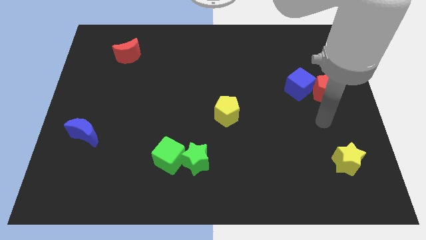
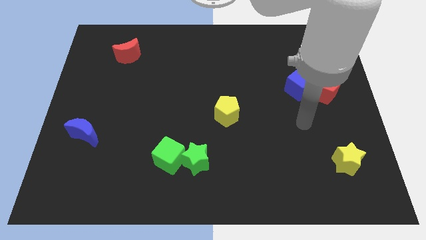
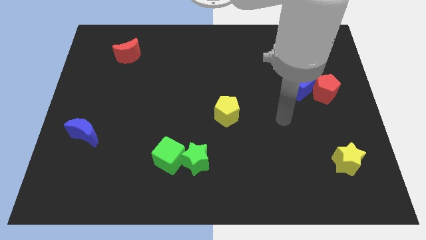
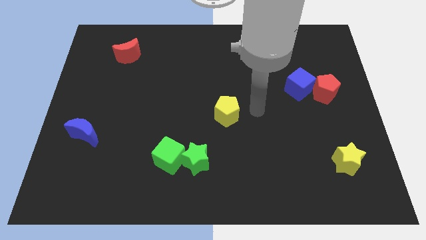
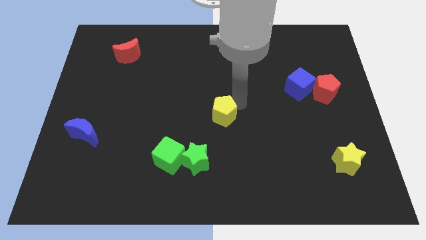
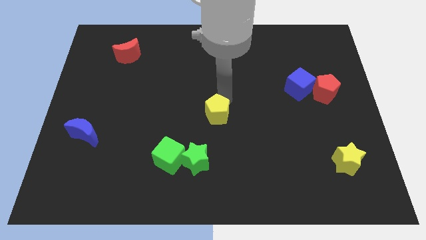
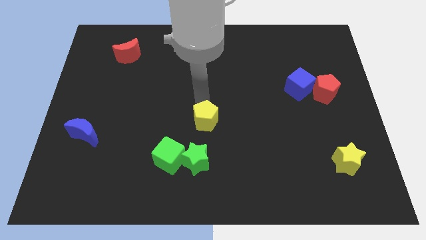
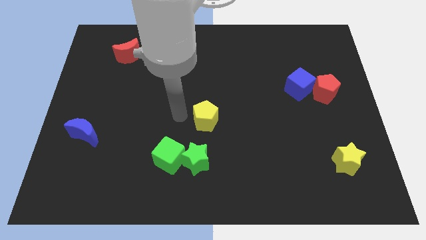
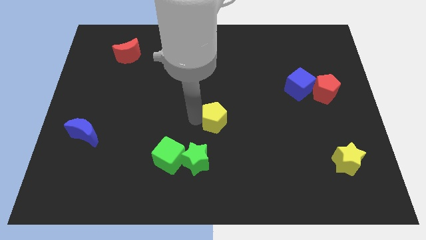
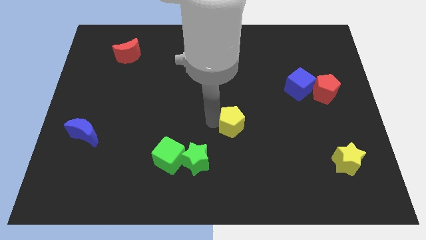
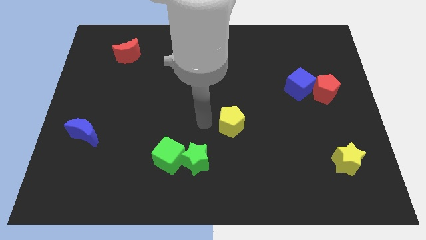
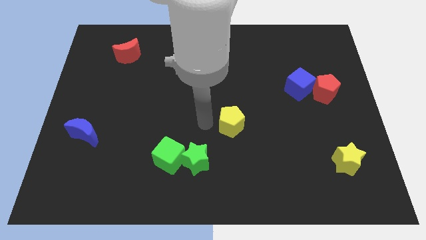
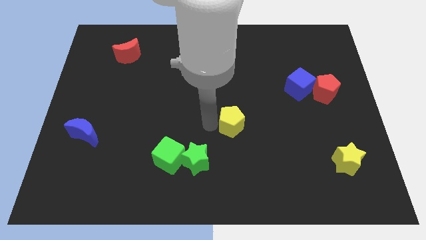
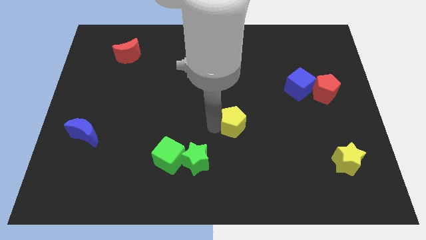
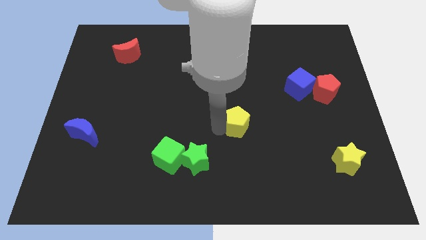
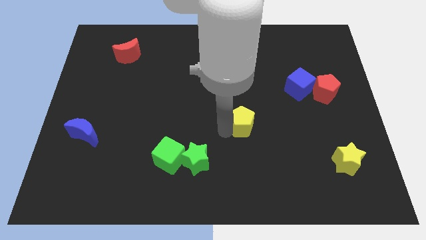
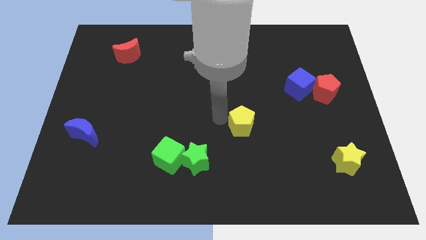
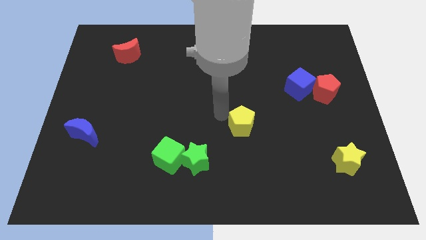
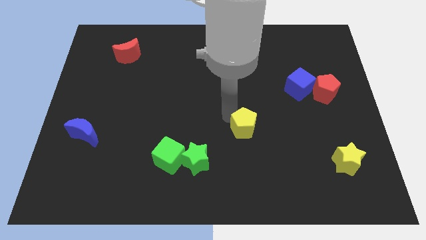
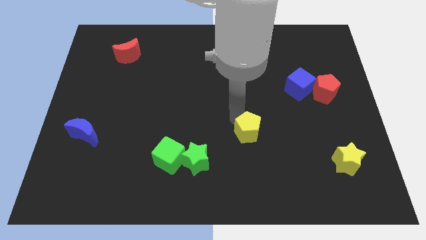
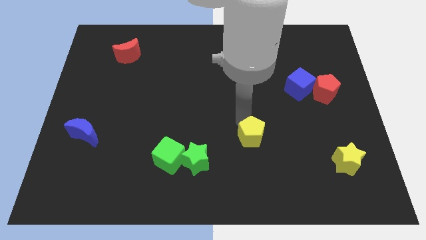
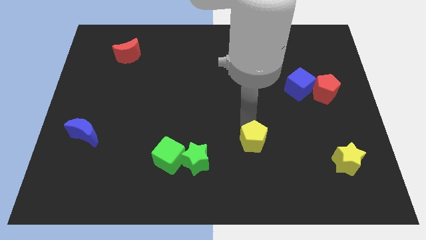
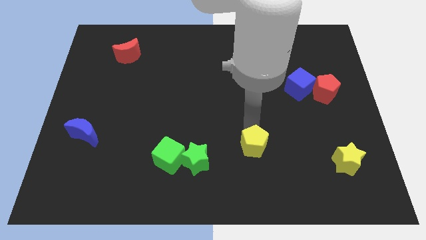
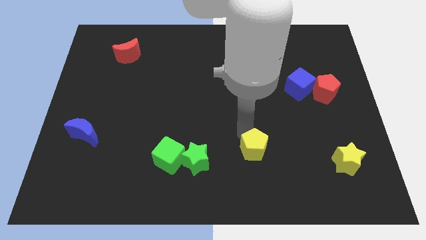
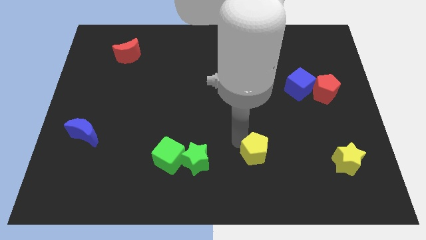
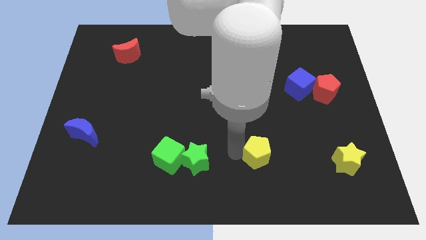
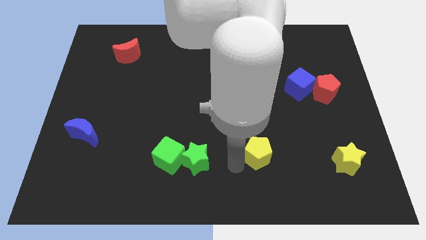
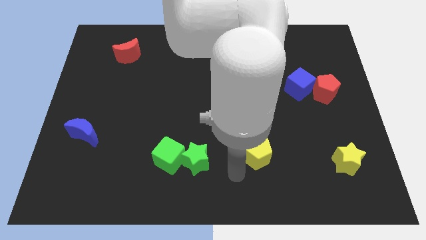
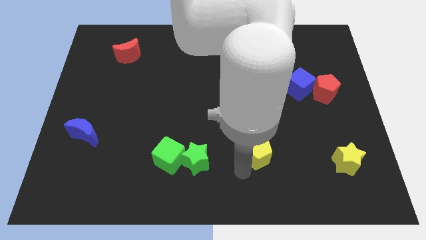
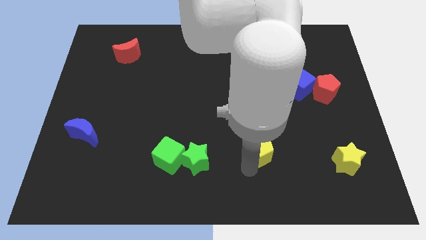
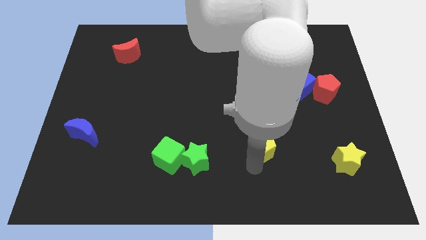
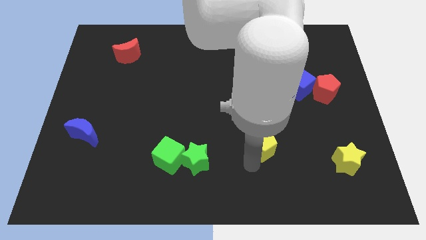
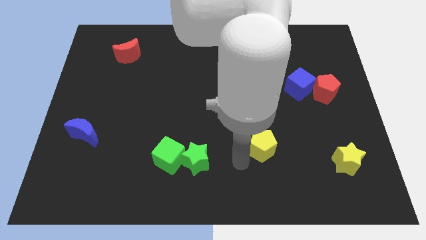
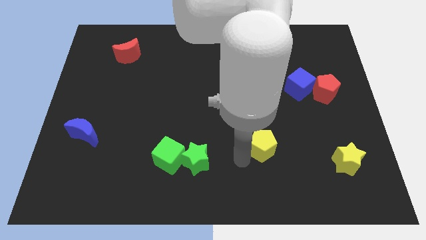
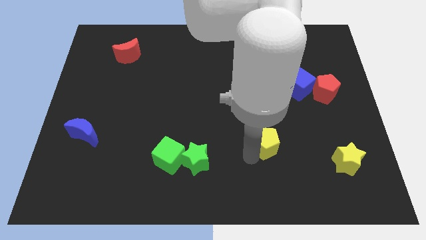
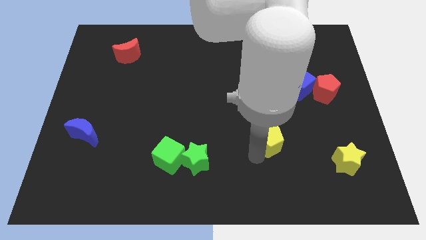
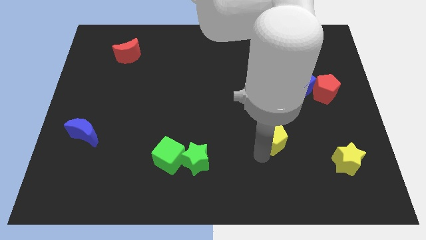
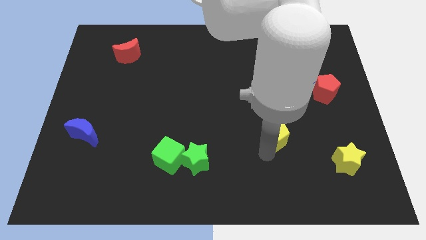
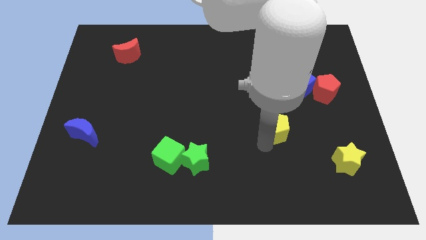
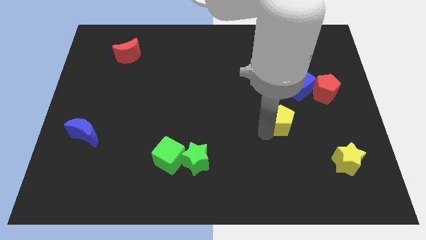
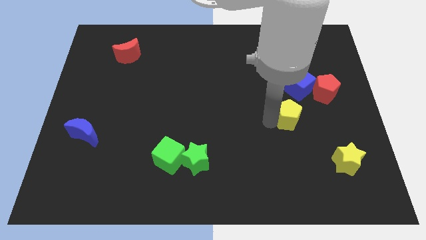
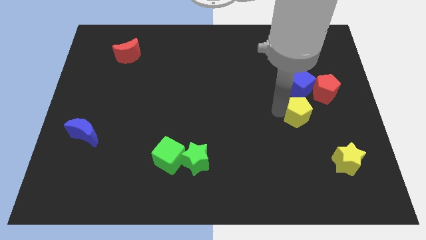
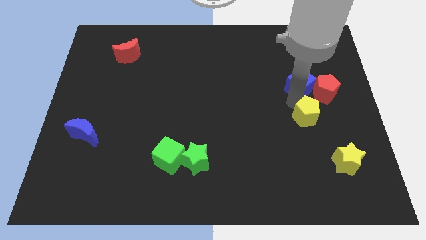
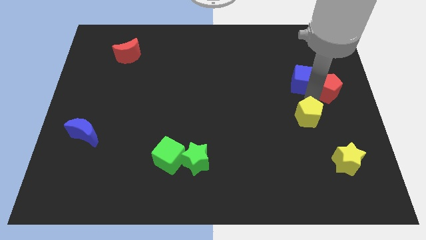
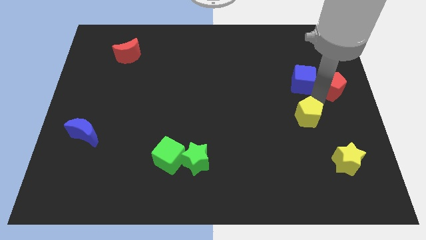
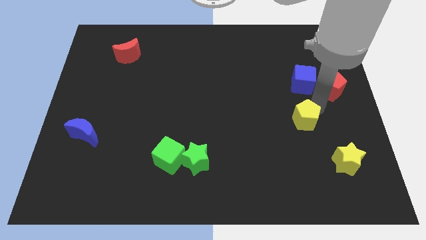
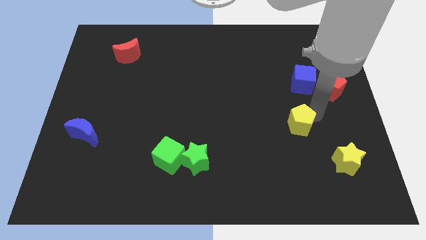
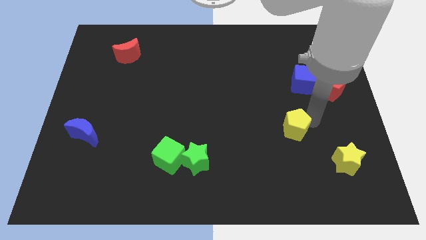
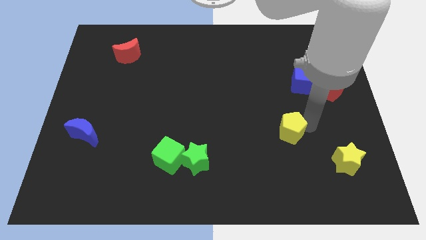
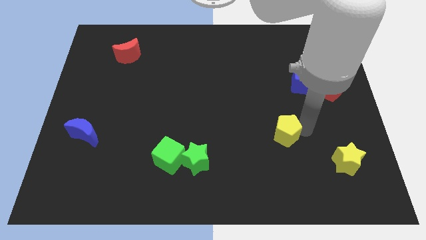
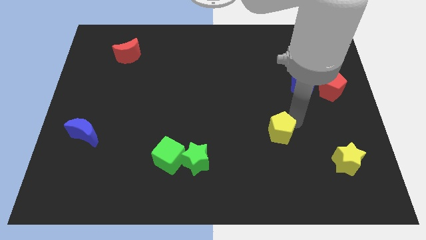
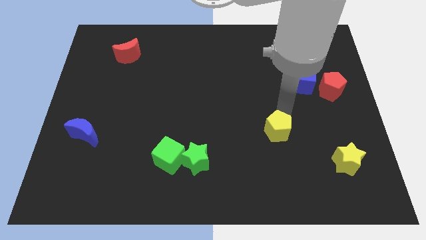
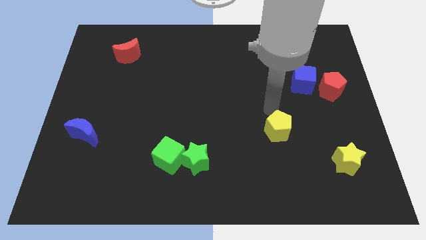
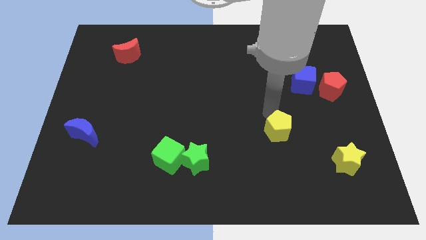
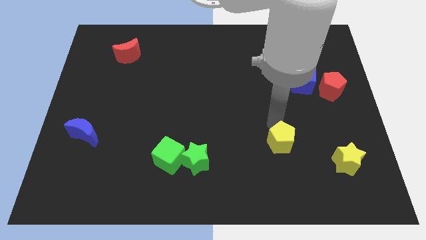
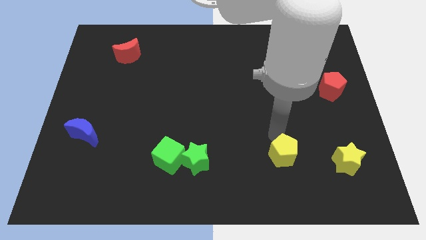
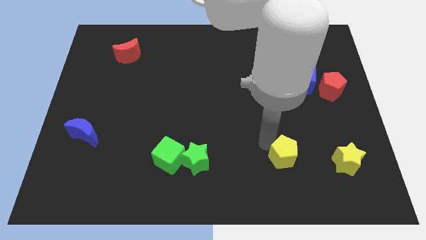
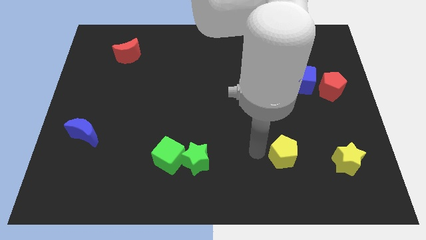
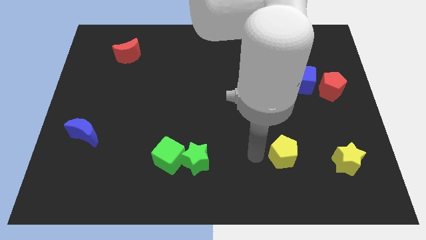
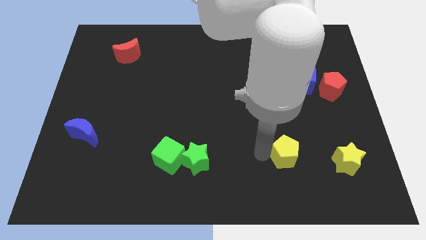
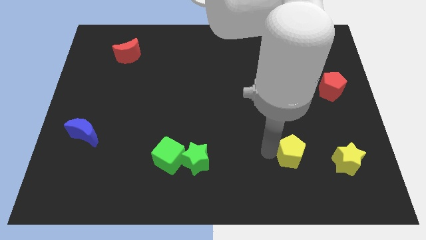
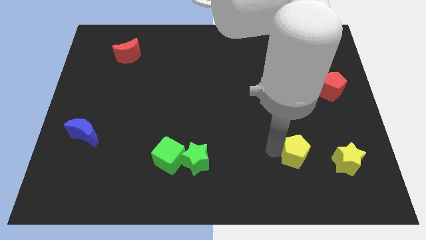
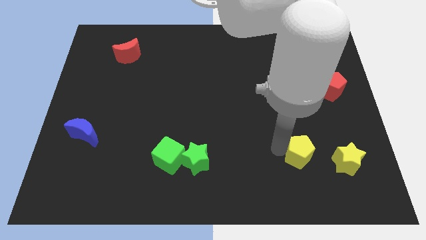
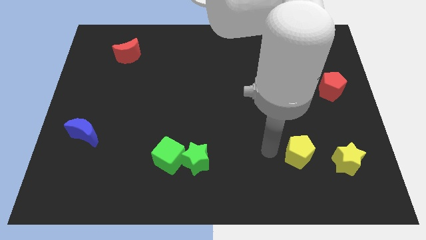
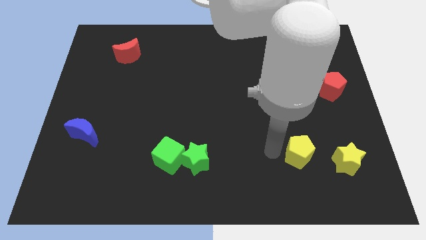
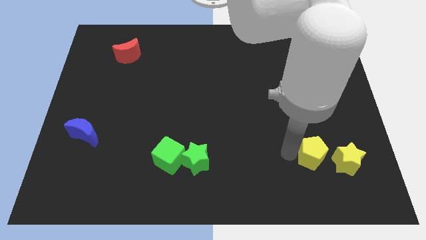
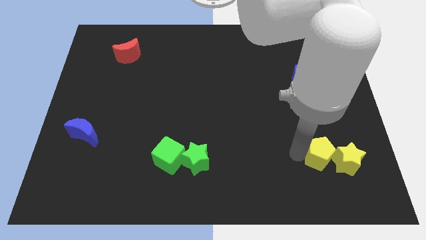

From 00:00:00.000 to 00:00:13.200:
push the yellow pentagon towards the yellow star
